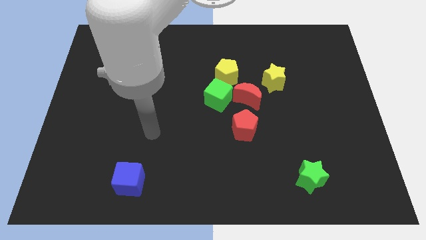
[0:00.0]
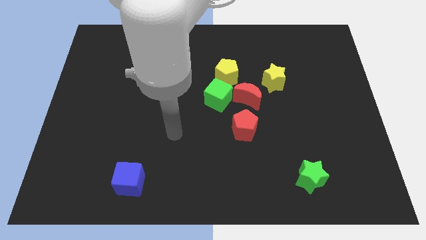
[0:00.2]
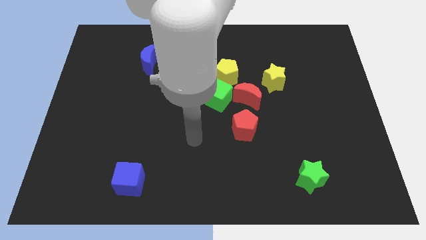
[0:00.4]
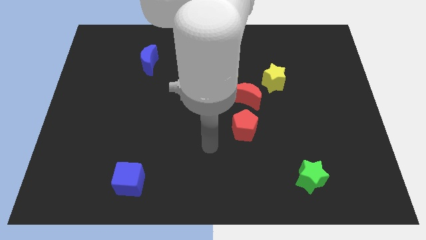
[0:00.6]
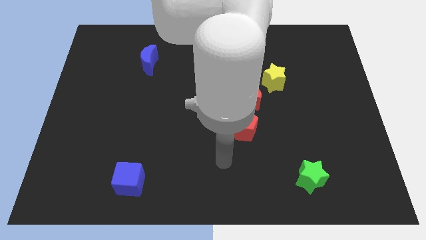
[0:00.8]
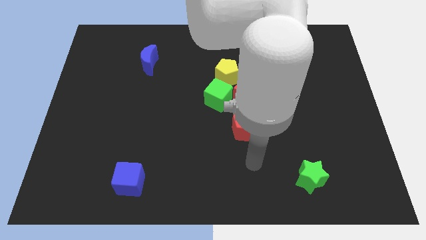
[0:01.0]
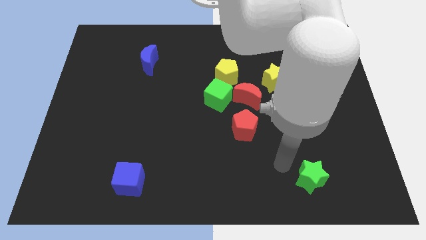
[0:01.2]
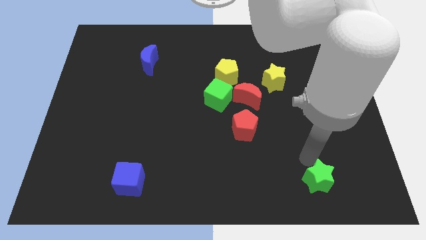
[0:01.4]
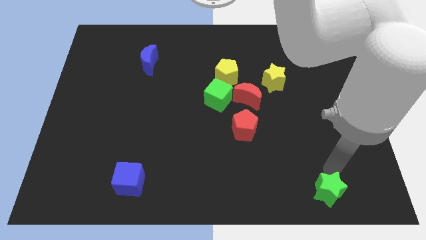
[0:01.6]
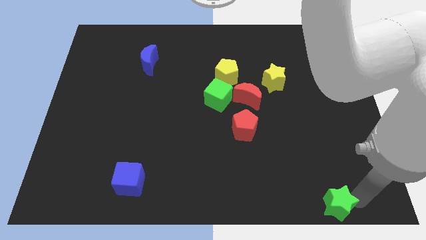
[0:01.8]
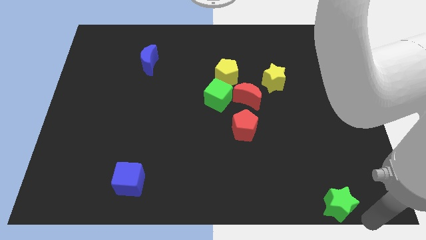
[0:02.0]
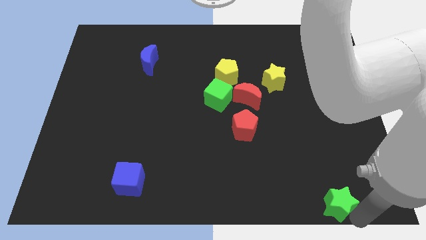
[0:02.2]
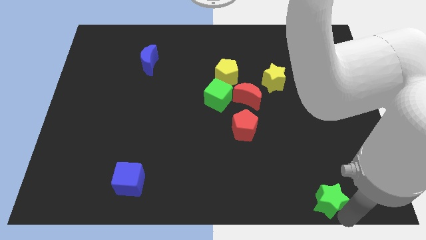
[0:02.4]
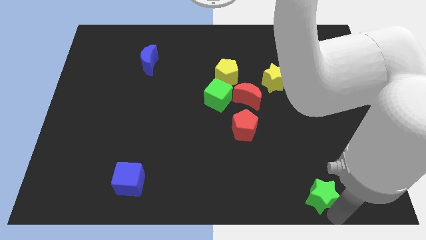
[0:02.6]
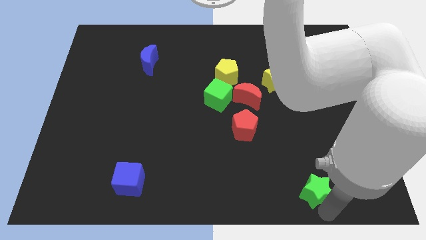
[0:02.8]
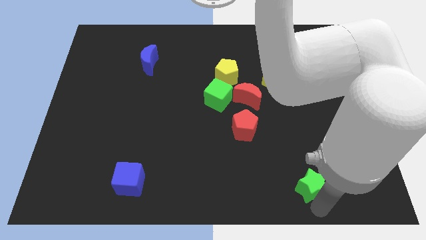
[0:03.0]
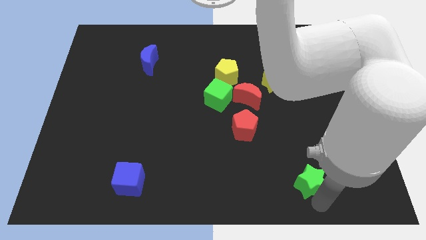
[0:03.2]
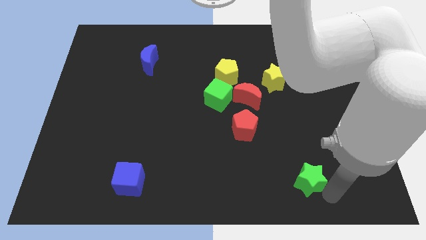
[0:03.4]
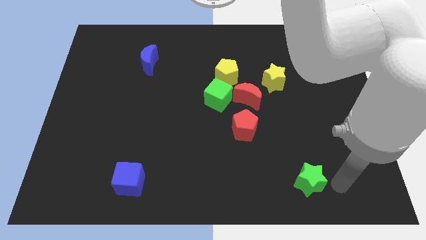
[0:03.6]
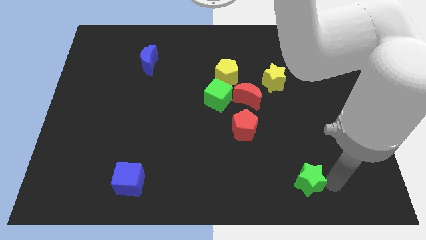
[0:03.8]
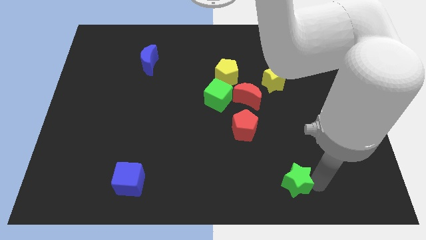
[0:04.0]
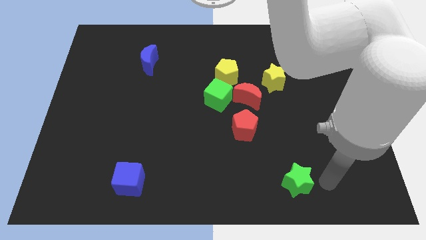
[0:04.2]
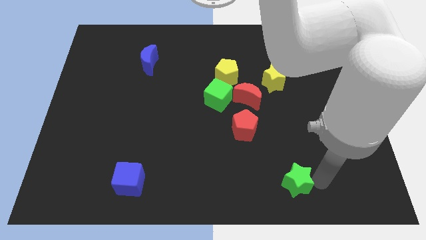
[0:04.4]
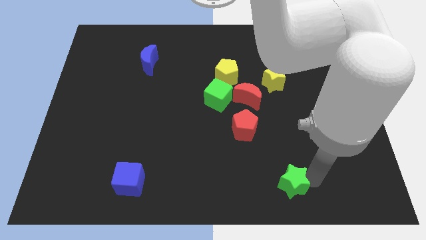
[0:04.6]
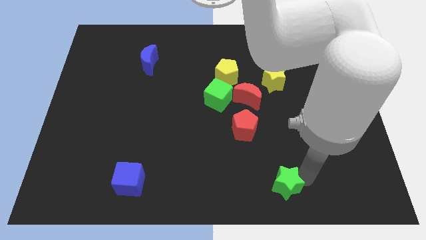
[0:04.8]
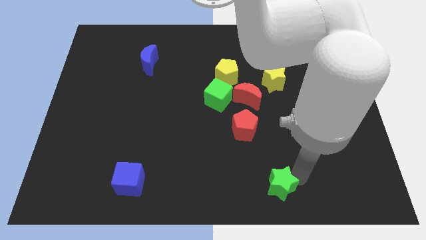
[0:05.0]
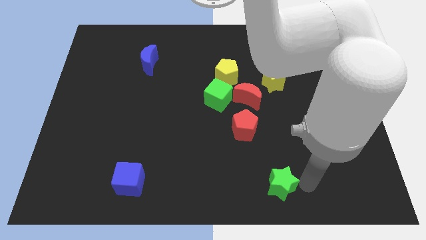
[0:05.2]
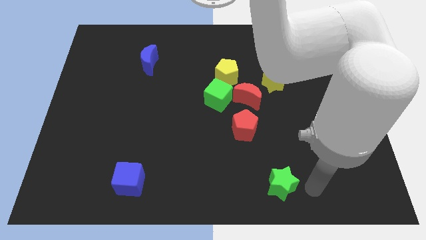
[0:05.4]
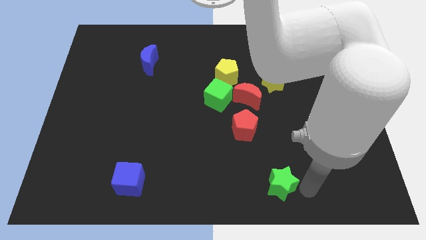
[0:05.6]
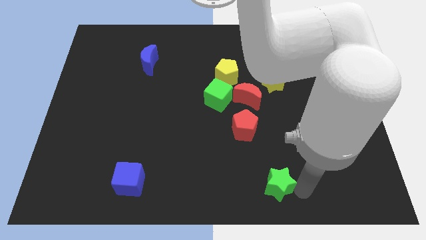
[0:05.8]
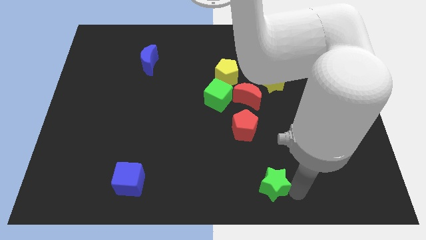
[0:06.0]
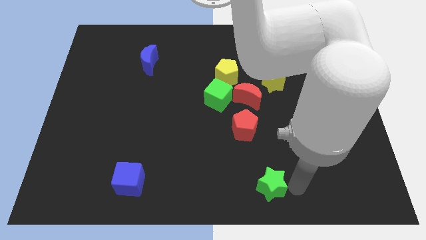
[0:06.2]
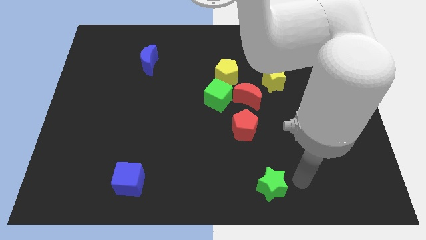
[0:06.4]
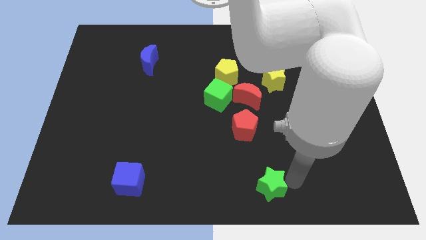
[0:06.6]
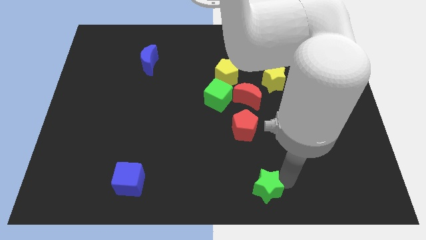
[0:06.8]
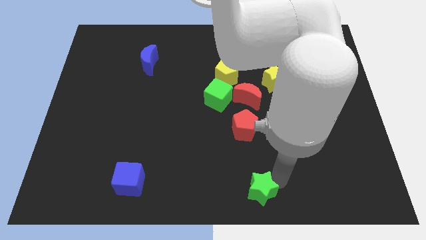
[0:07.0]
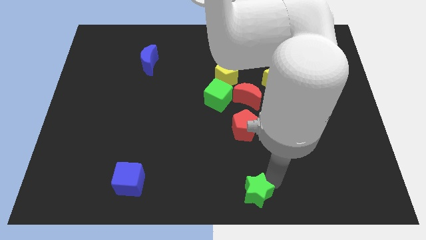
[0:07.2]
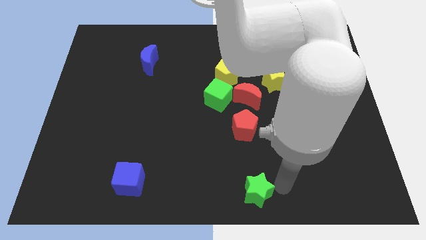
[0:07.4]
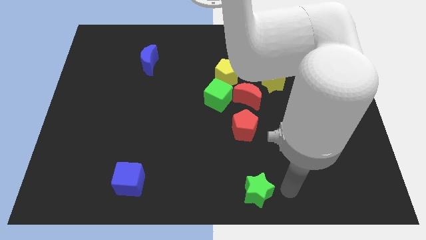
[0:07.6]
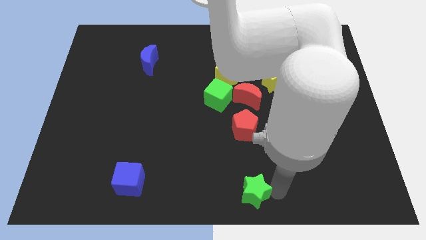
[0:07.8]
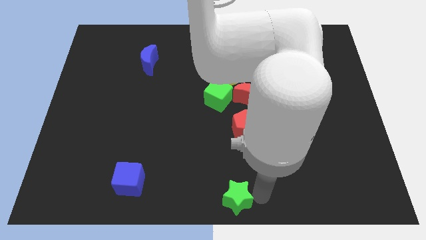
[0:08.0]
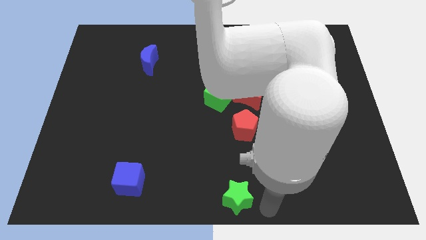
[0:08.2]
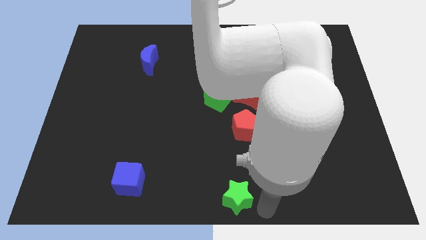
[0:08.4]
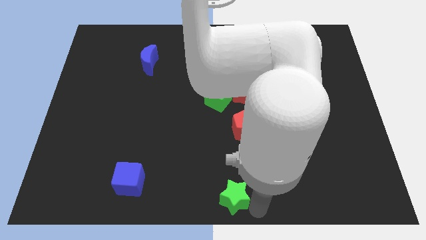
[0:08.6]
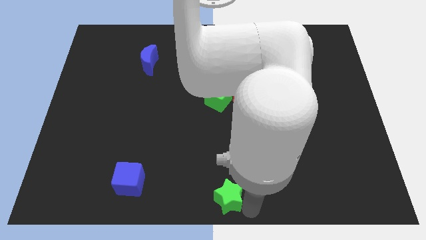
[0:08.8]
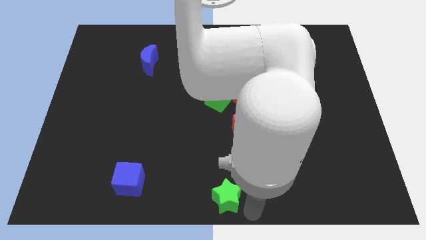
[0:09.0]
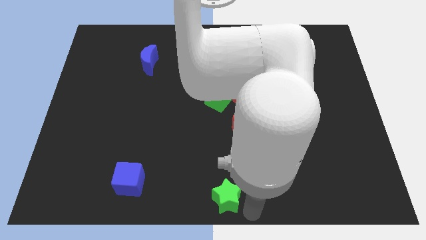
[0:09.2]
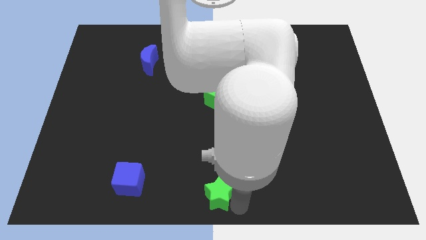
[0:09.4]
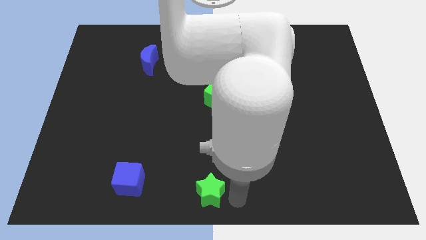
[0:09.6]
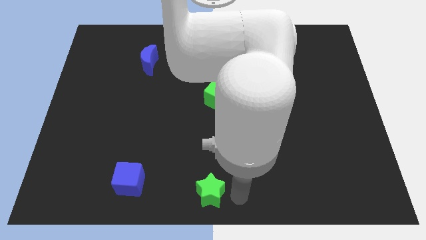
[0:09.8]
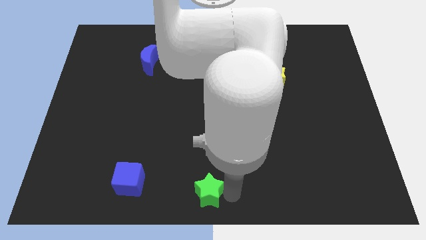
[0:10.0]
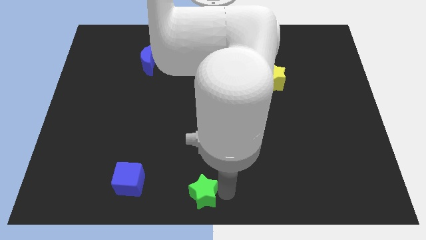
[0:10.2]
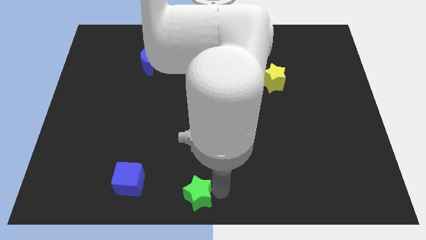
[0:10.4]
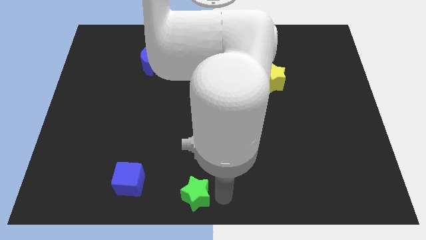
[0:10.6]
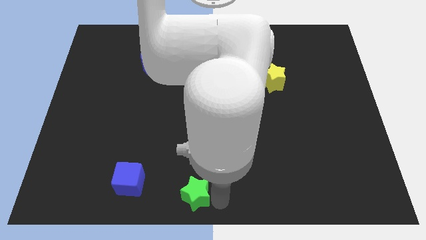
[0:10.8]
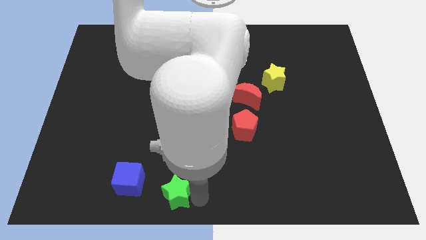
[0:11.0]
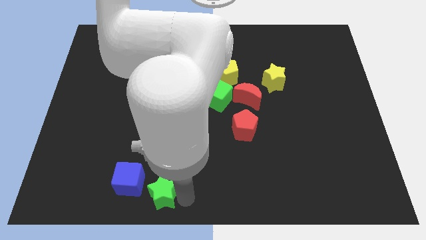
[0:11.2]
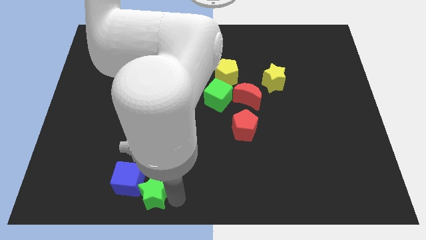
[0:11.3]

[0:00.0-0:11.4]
slide the green star next to the blue cube
